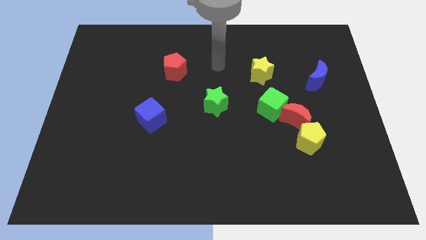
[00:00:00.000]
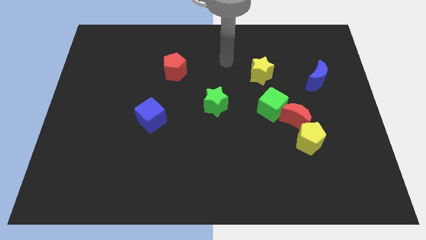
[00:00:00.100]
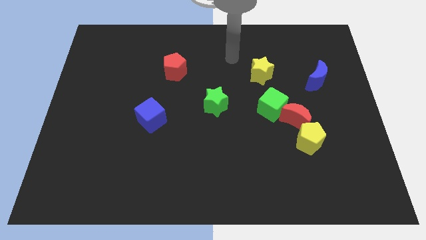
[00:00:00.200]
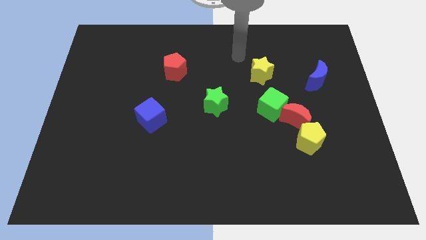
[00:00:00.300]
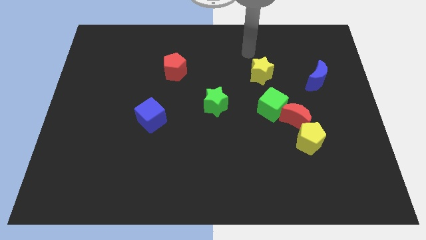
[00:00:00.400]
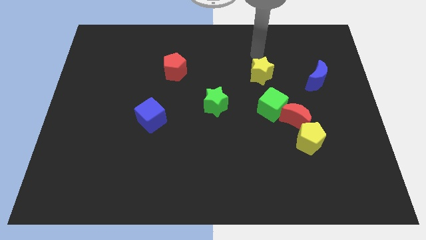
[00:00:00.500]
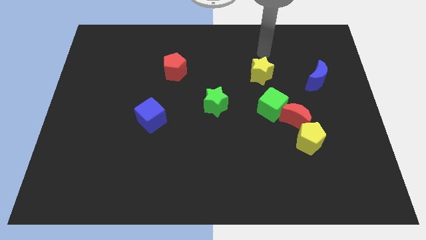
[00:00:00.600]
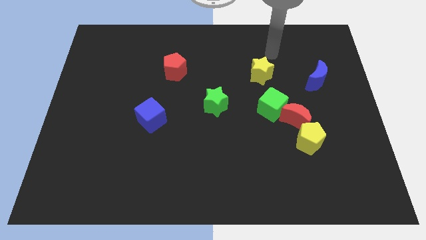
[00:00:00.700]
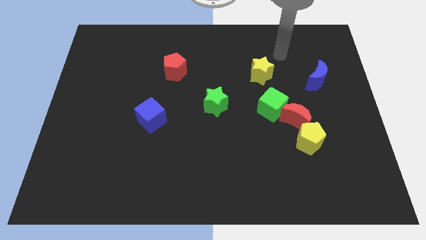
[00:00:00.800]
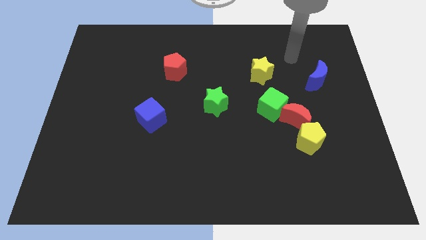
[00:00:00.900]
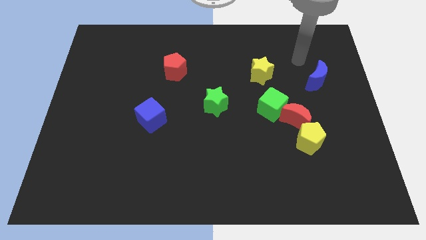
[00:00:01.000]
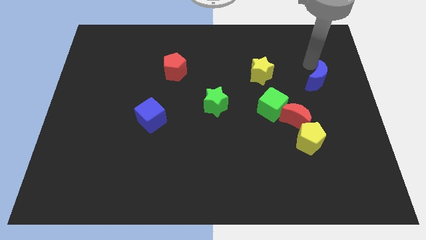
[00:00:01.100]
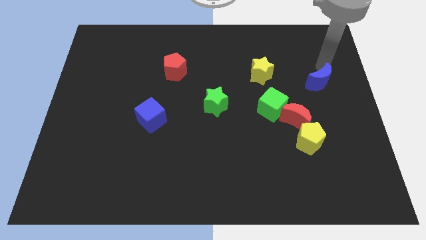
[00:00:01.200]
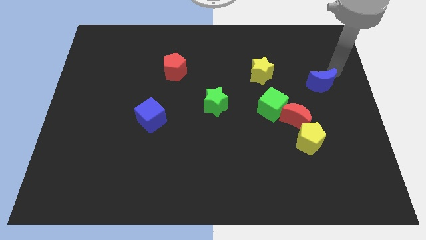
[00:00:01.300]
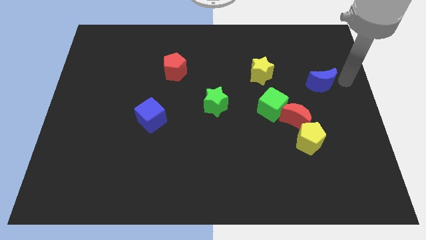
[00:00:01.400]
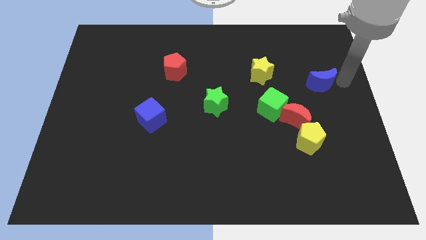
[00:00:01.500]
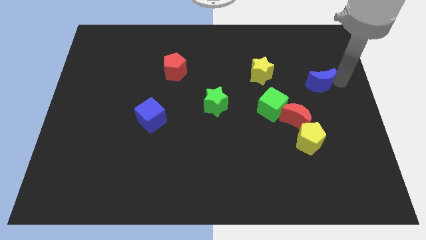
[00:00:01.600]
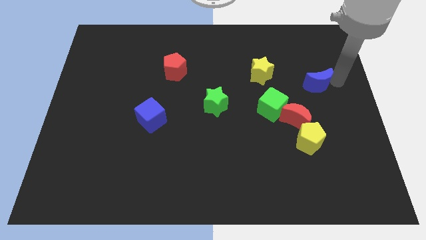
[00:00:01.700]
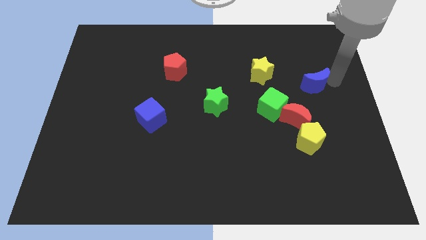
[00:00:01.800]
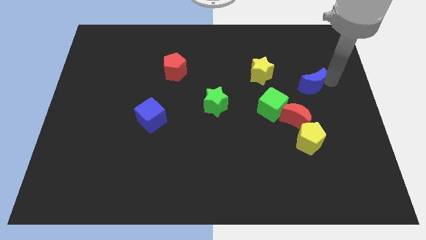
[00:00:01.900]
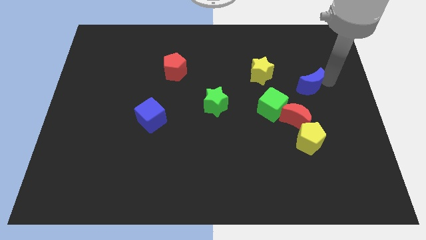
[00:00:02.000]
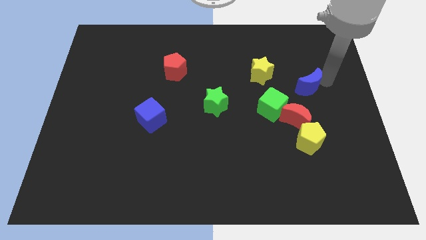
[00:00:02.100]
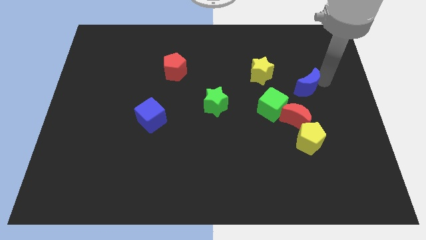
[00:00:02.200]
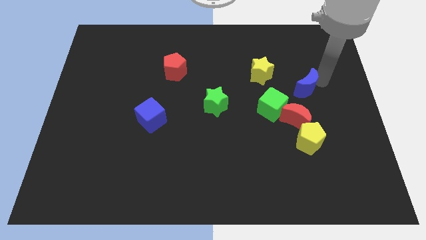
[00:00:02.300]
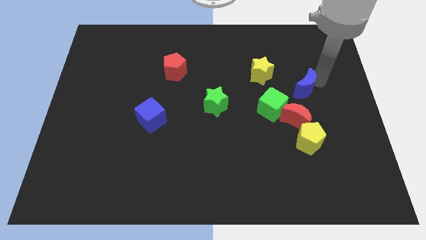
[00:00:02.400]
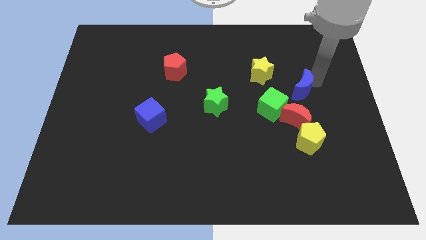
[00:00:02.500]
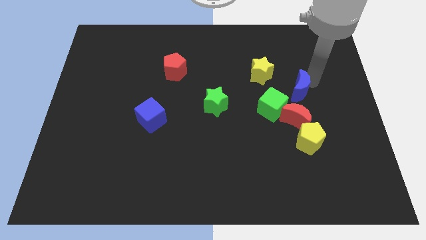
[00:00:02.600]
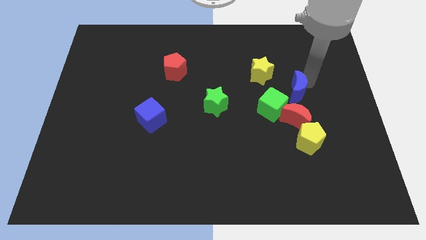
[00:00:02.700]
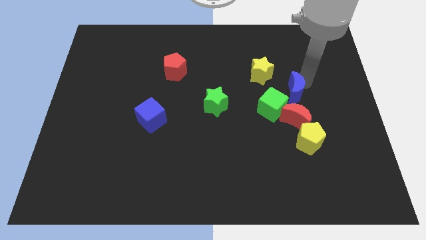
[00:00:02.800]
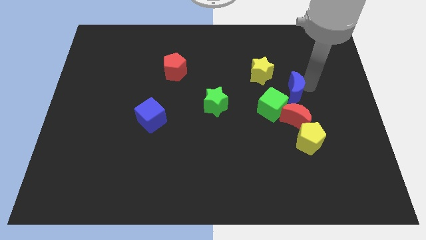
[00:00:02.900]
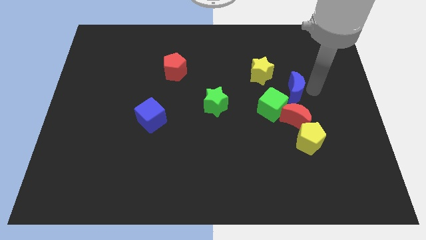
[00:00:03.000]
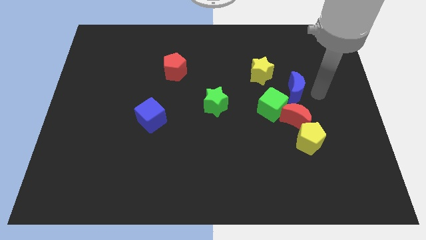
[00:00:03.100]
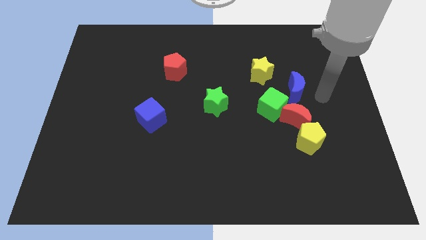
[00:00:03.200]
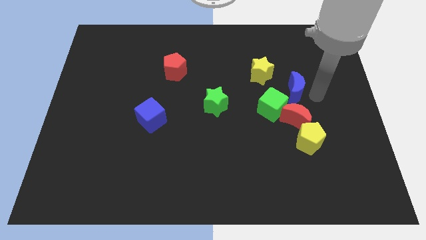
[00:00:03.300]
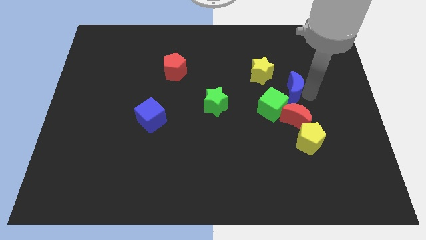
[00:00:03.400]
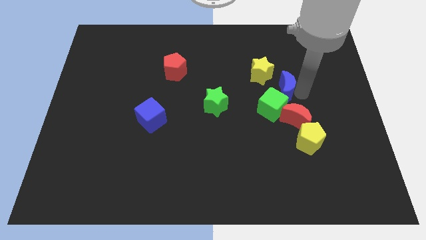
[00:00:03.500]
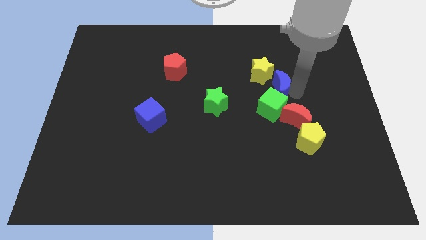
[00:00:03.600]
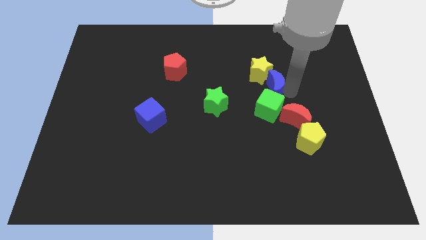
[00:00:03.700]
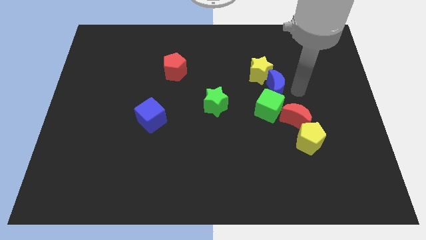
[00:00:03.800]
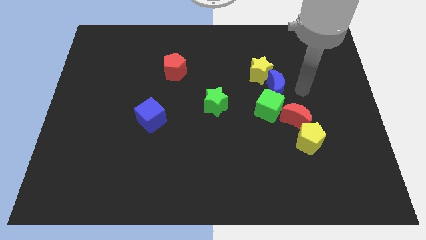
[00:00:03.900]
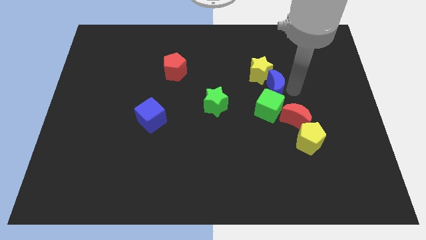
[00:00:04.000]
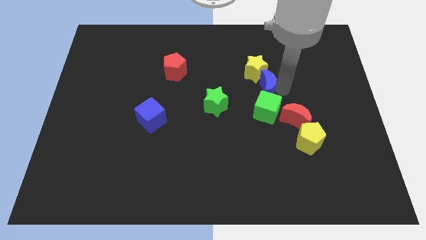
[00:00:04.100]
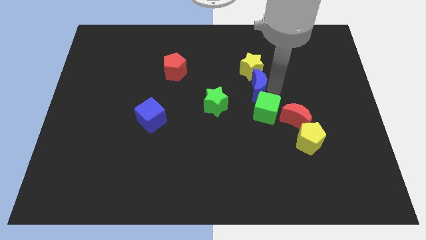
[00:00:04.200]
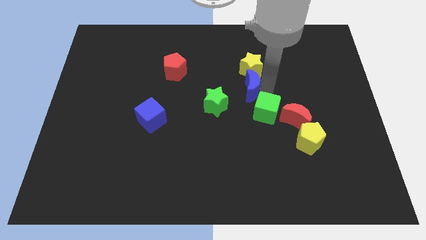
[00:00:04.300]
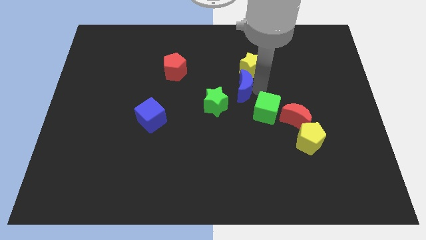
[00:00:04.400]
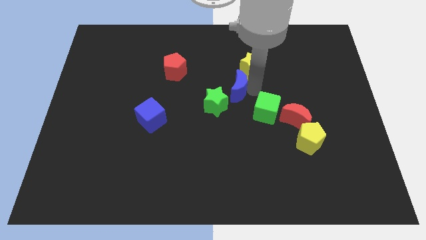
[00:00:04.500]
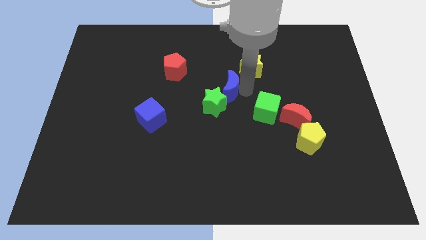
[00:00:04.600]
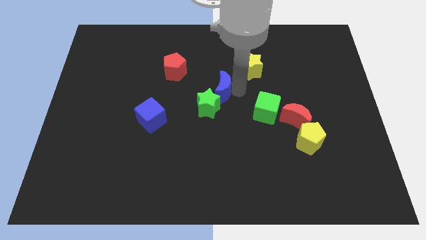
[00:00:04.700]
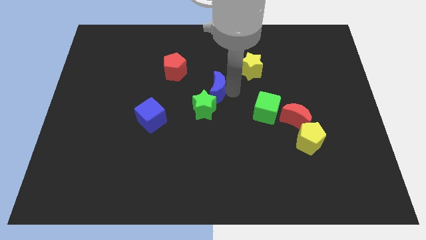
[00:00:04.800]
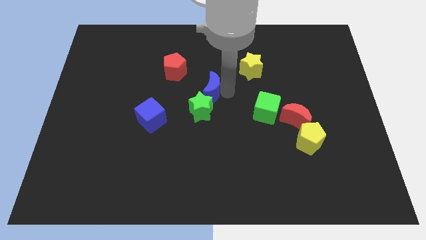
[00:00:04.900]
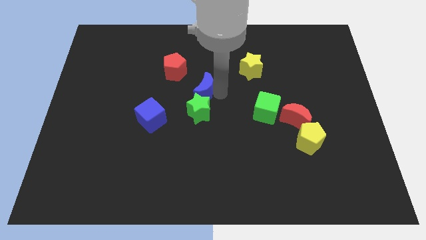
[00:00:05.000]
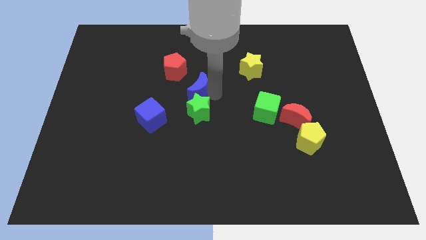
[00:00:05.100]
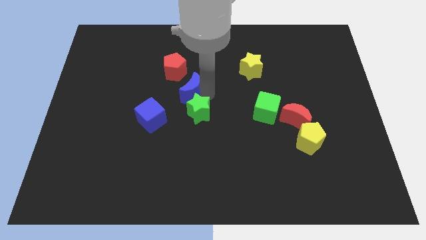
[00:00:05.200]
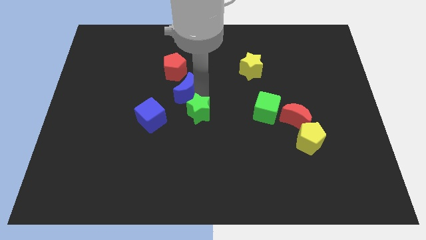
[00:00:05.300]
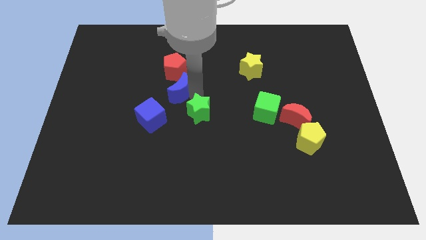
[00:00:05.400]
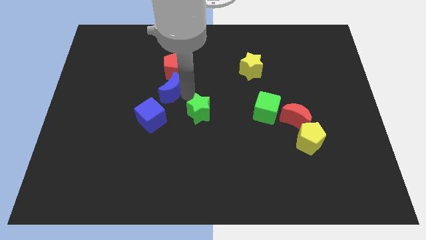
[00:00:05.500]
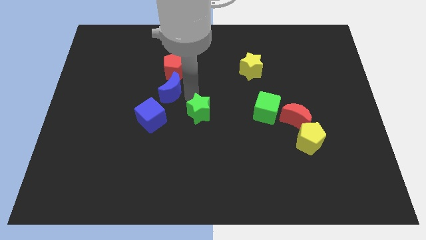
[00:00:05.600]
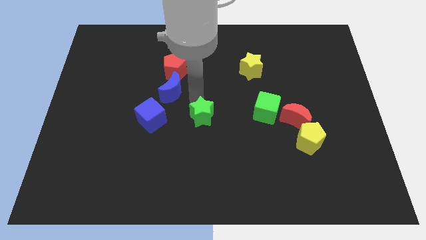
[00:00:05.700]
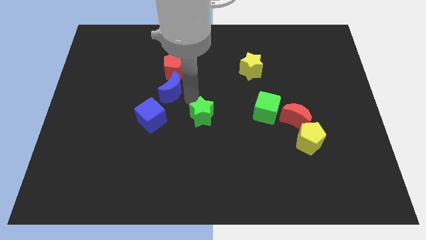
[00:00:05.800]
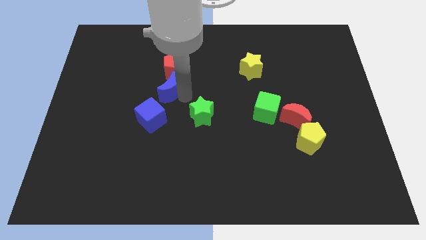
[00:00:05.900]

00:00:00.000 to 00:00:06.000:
slide the blue moon to the bottom left of the red pentagon
